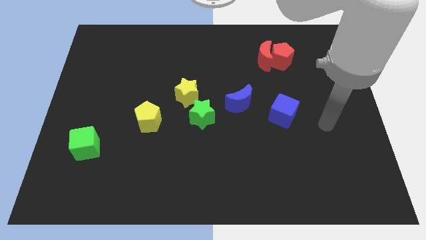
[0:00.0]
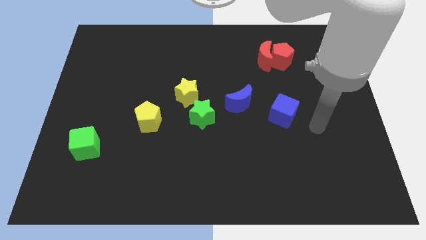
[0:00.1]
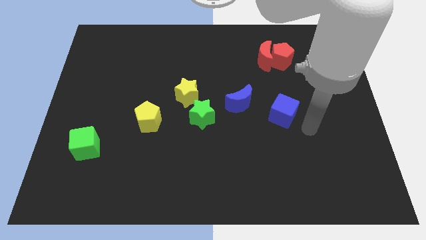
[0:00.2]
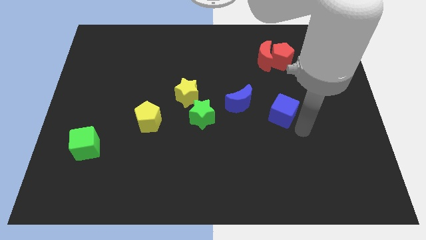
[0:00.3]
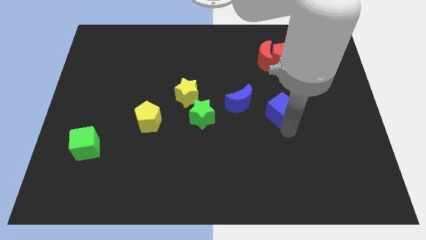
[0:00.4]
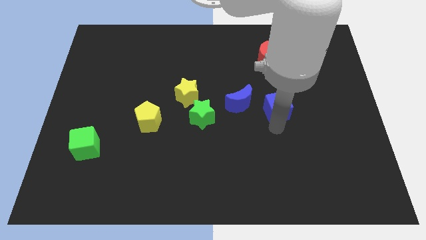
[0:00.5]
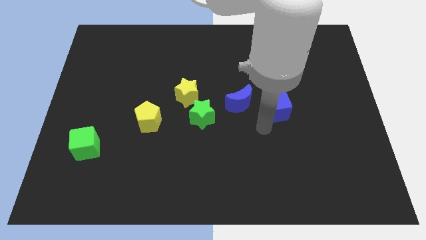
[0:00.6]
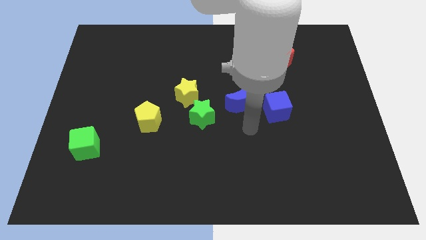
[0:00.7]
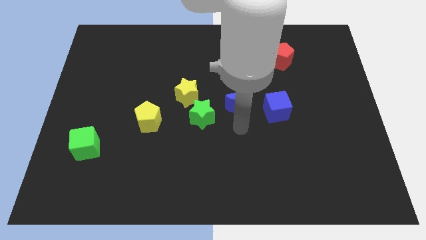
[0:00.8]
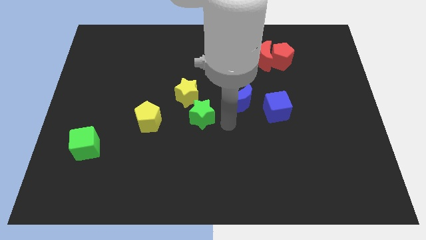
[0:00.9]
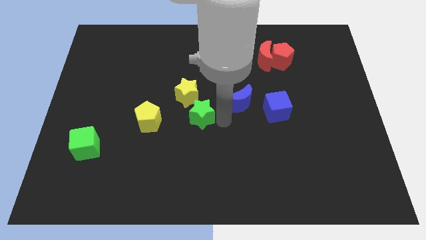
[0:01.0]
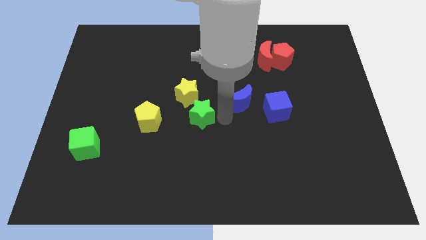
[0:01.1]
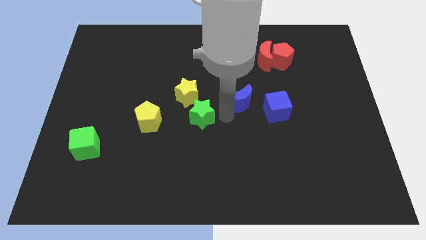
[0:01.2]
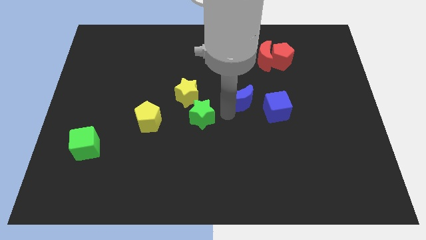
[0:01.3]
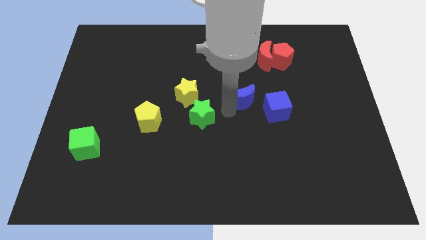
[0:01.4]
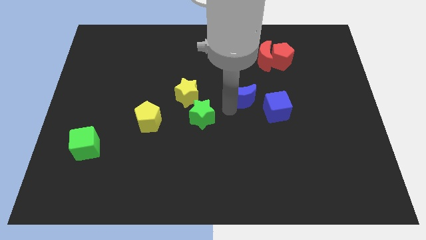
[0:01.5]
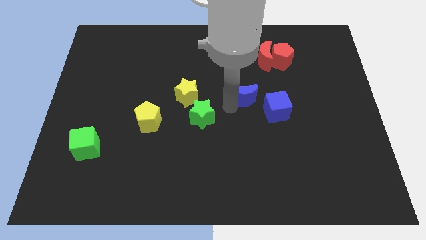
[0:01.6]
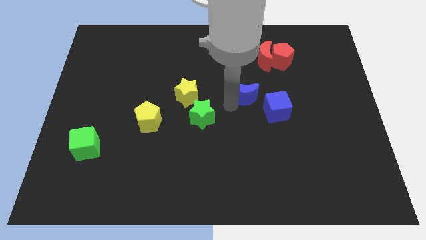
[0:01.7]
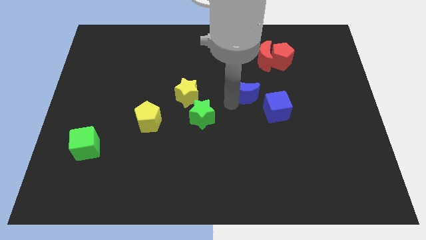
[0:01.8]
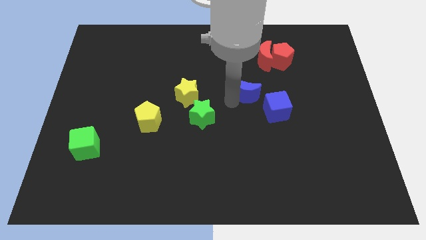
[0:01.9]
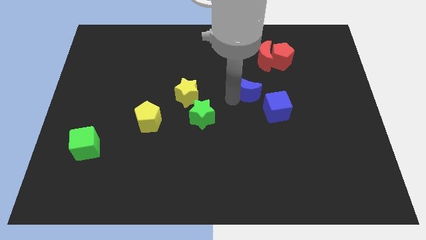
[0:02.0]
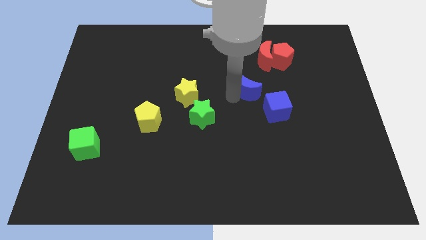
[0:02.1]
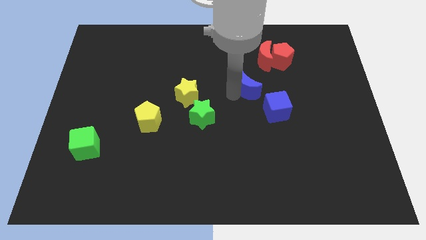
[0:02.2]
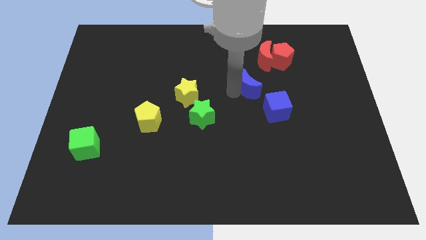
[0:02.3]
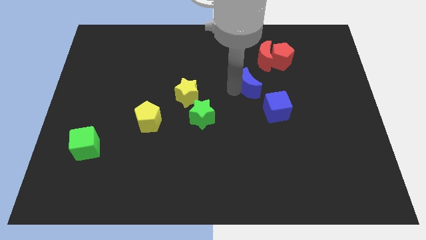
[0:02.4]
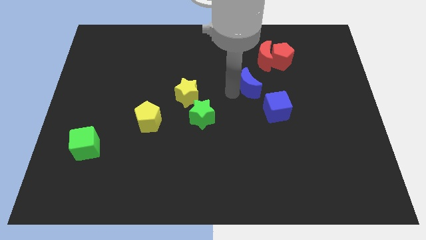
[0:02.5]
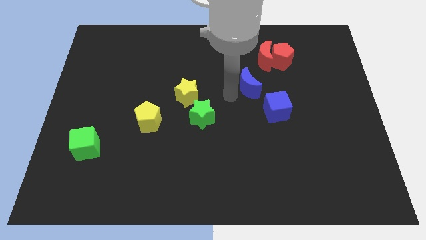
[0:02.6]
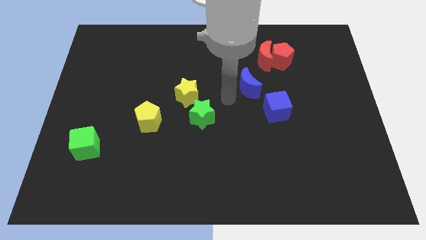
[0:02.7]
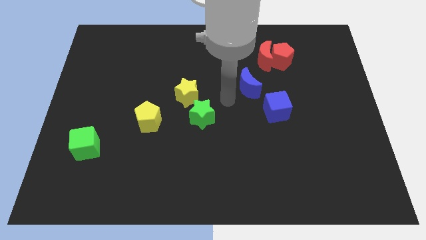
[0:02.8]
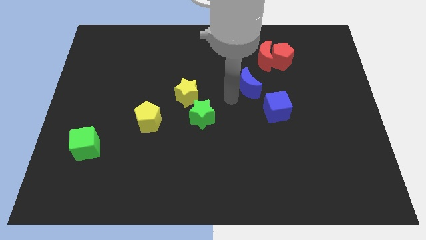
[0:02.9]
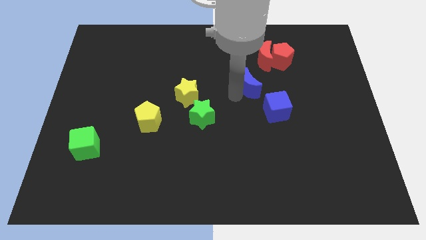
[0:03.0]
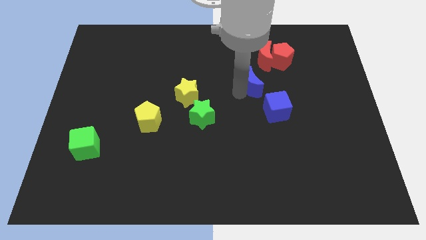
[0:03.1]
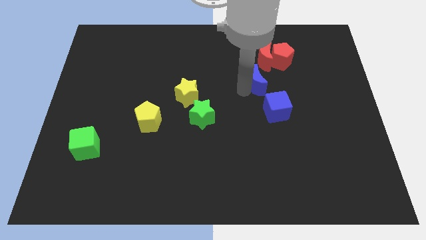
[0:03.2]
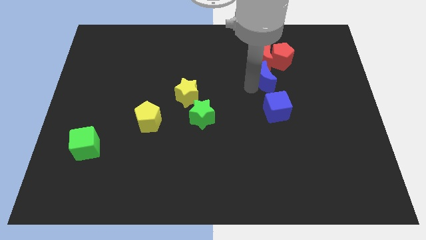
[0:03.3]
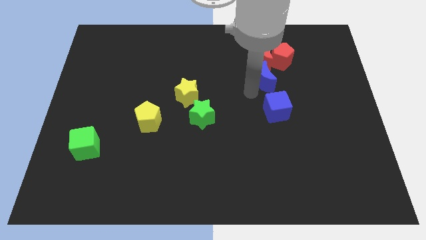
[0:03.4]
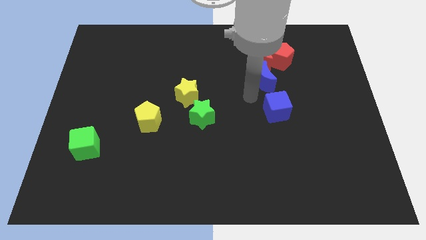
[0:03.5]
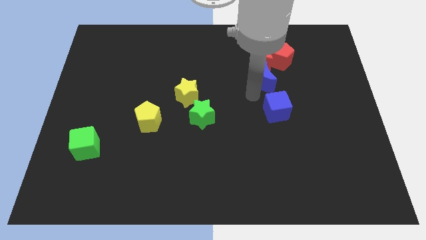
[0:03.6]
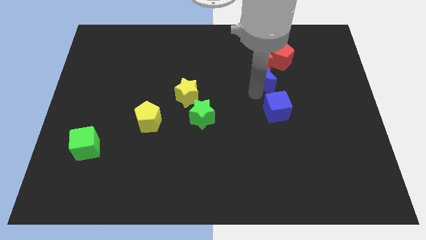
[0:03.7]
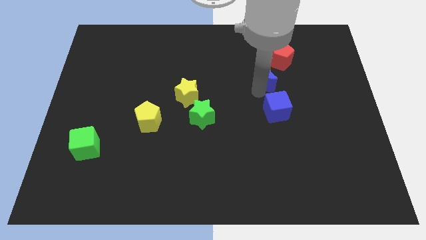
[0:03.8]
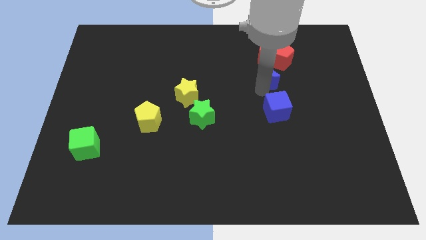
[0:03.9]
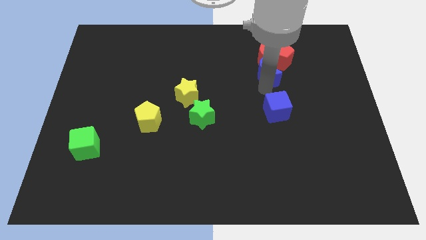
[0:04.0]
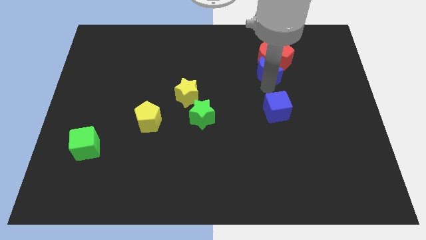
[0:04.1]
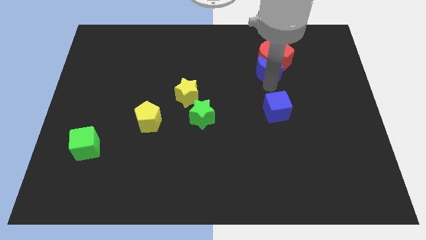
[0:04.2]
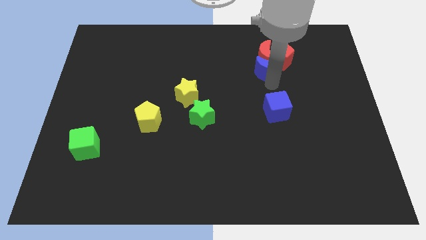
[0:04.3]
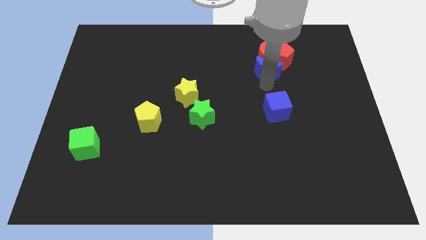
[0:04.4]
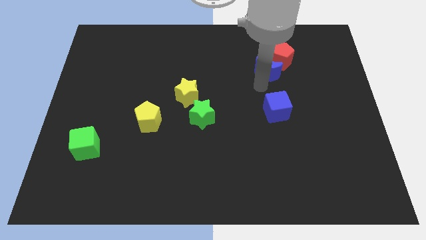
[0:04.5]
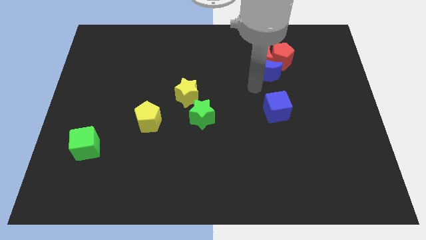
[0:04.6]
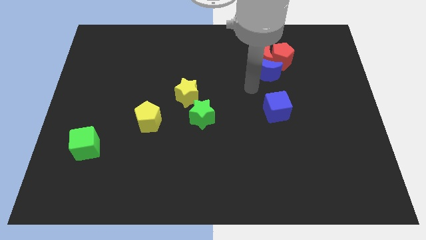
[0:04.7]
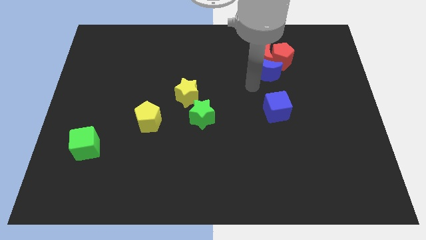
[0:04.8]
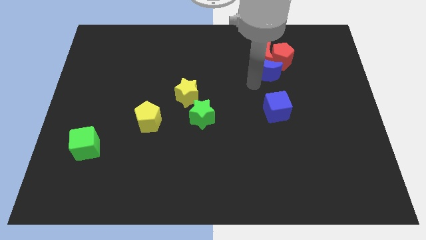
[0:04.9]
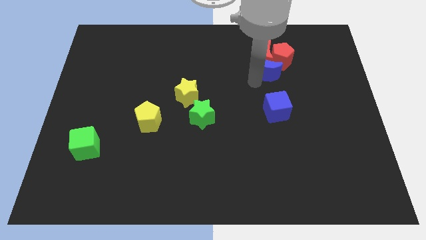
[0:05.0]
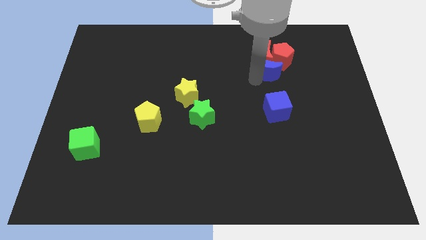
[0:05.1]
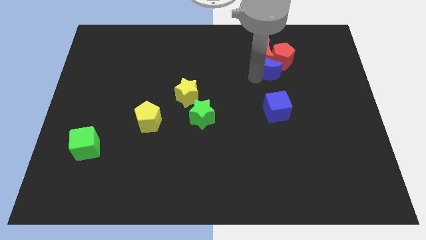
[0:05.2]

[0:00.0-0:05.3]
move the blue moon close to the red pentagon

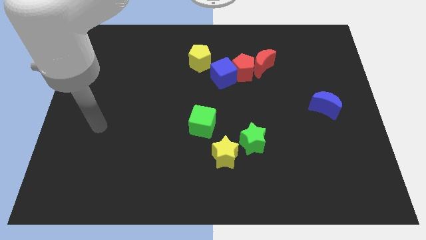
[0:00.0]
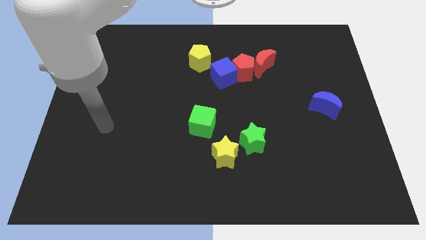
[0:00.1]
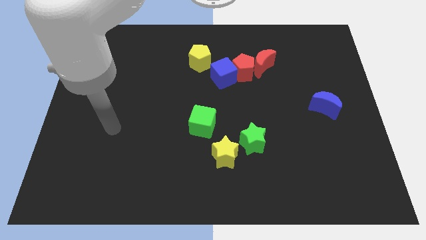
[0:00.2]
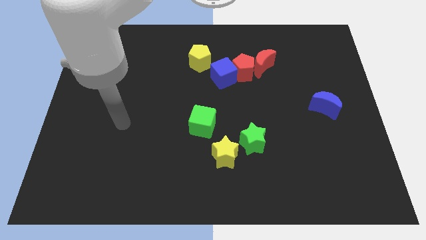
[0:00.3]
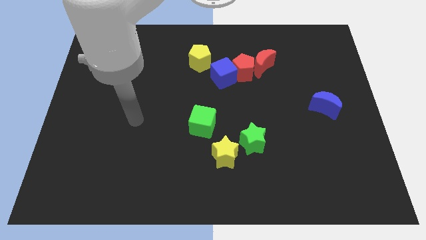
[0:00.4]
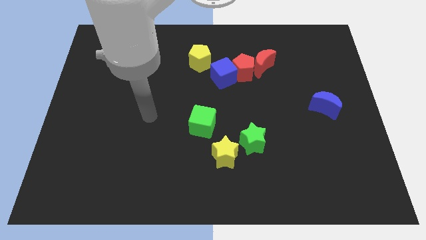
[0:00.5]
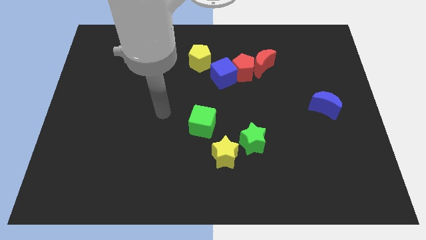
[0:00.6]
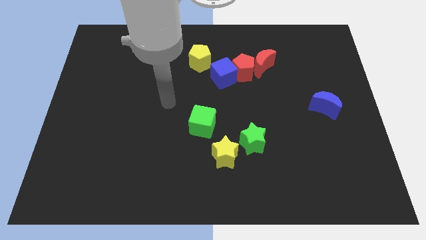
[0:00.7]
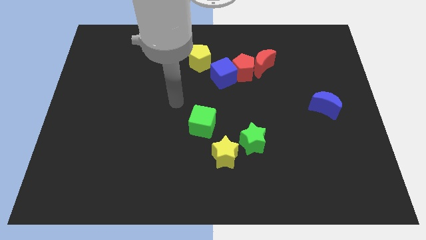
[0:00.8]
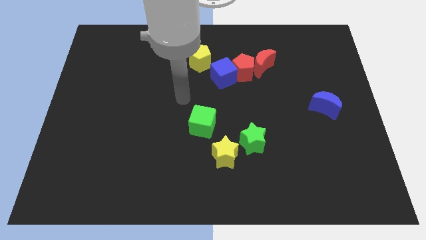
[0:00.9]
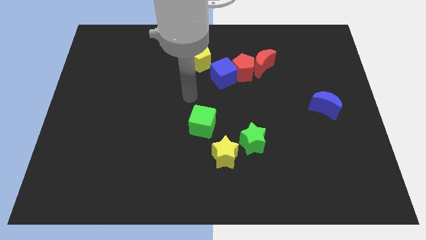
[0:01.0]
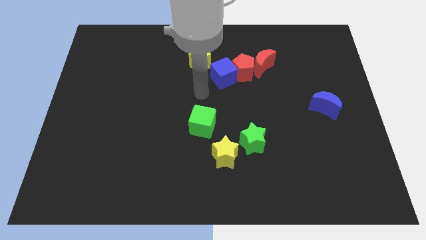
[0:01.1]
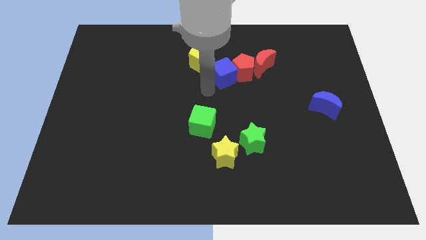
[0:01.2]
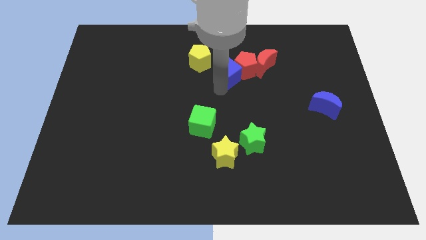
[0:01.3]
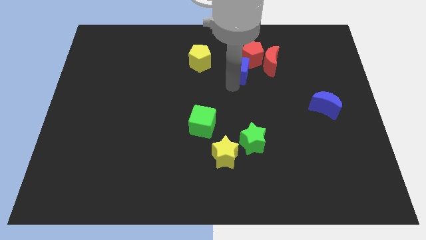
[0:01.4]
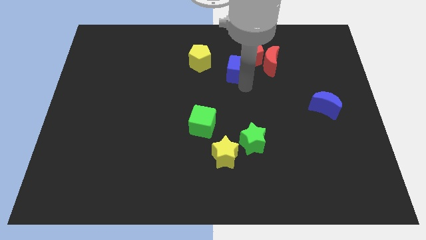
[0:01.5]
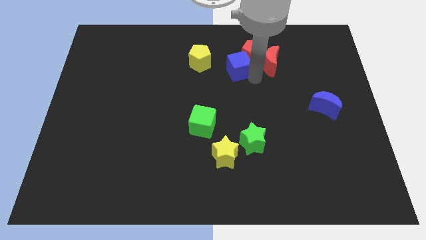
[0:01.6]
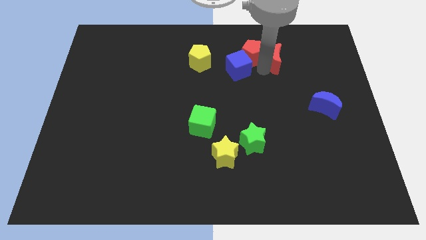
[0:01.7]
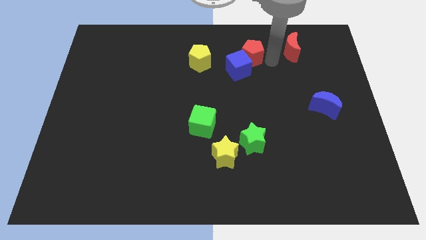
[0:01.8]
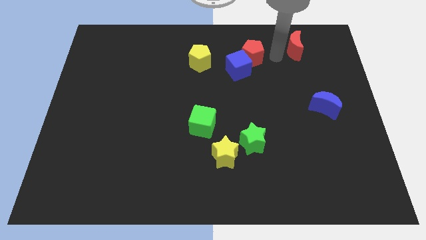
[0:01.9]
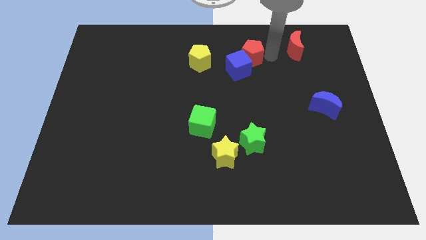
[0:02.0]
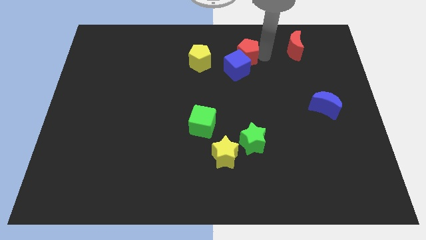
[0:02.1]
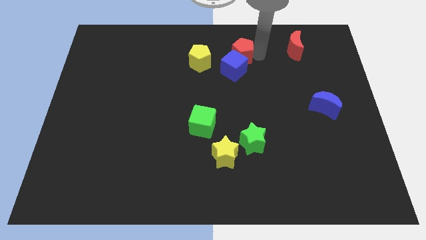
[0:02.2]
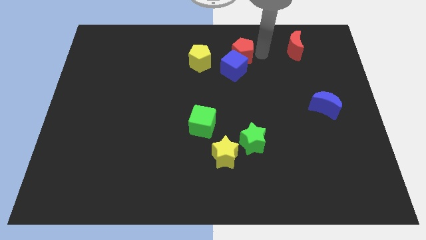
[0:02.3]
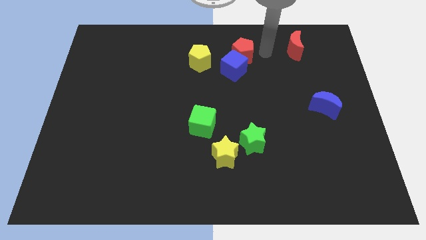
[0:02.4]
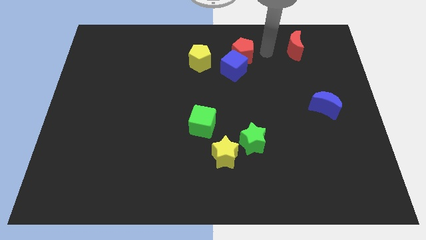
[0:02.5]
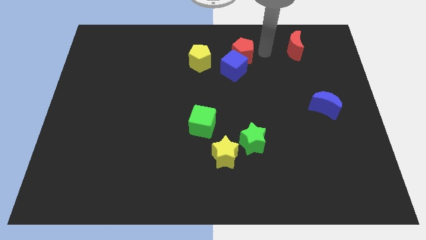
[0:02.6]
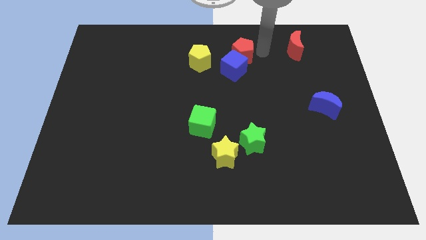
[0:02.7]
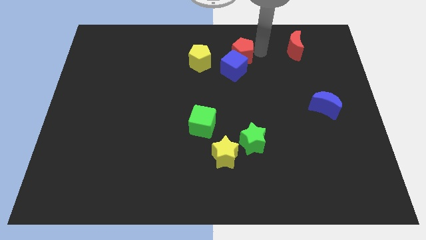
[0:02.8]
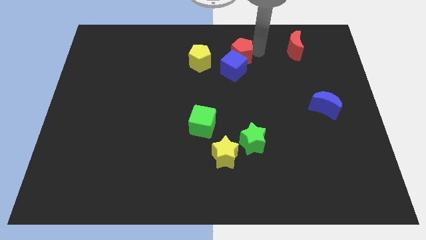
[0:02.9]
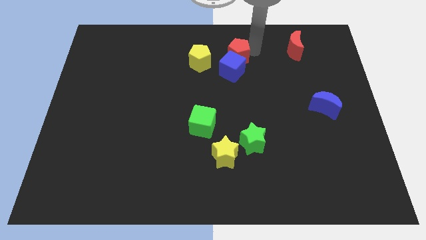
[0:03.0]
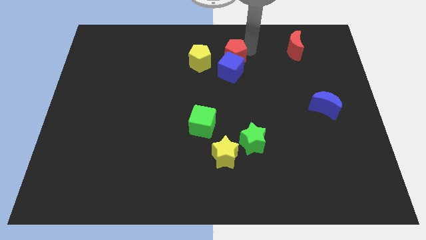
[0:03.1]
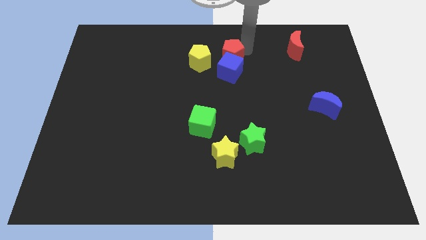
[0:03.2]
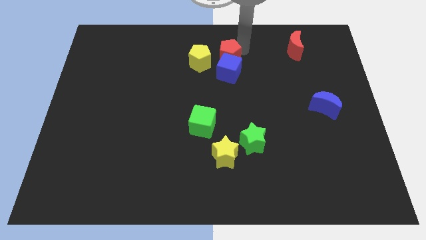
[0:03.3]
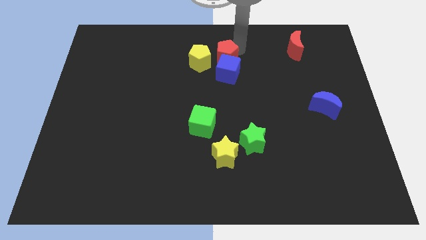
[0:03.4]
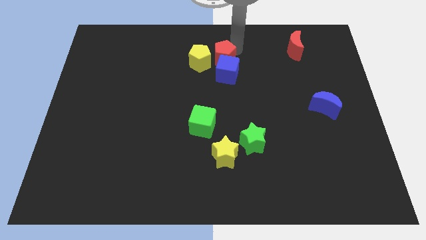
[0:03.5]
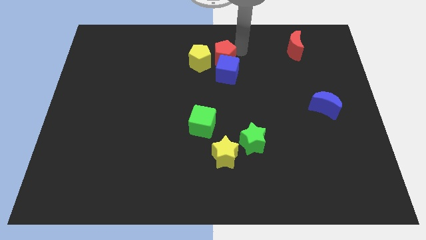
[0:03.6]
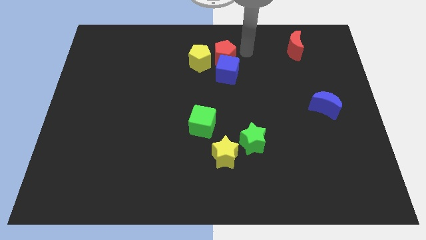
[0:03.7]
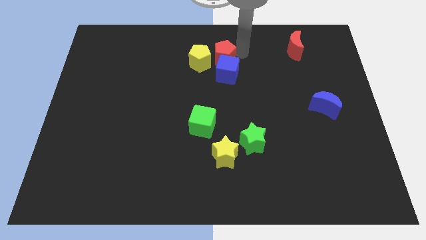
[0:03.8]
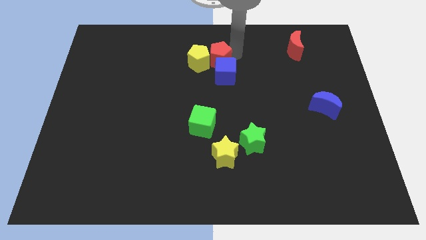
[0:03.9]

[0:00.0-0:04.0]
slide the red pentagon to the yellow pentagon
